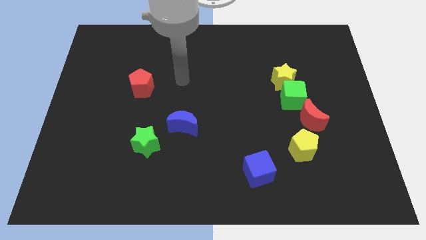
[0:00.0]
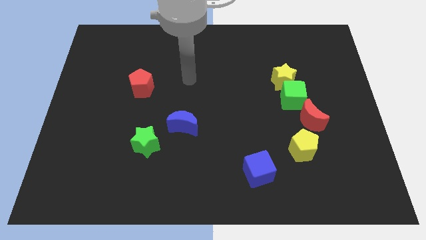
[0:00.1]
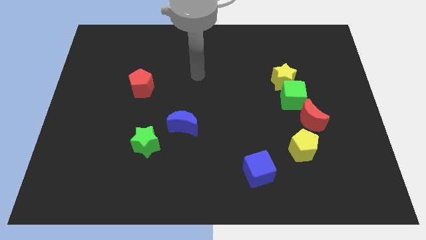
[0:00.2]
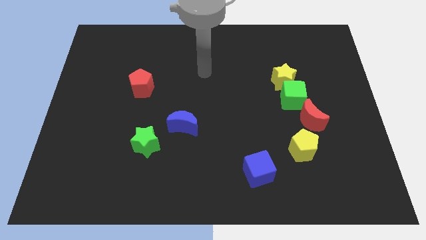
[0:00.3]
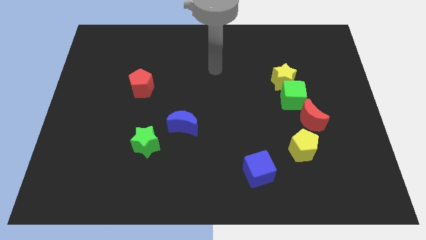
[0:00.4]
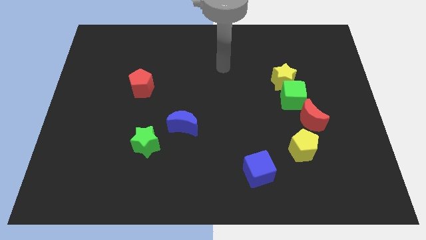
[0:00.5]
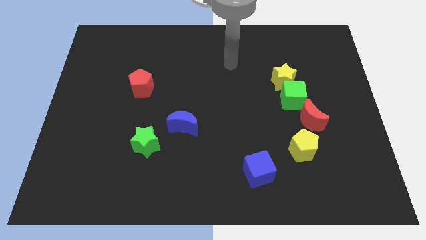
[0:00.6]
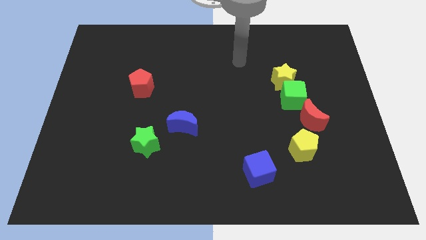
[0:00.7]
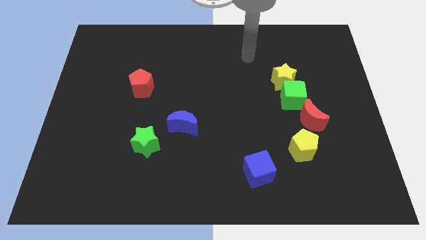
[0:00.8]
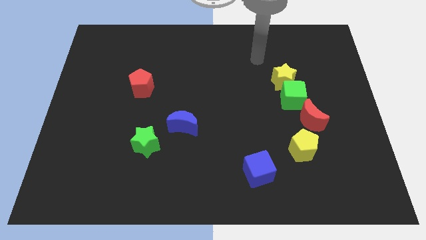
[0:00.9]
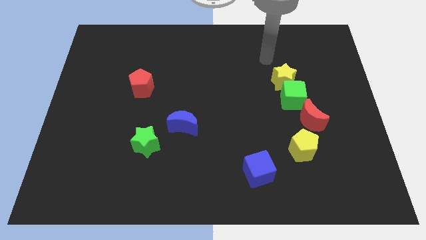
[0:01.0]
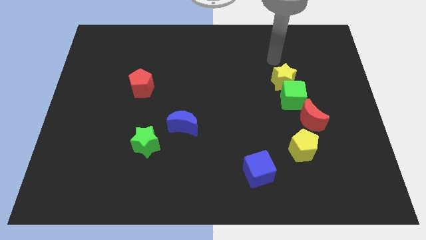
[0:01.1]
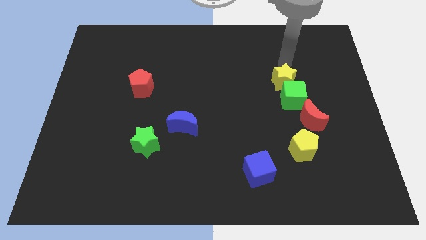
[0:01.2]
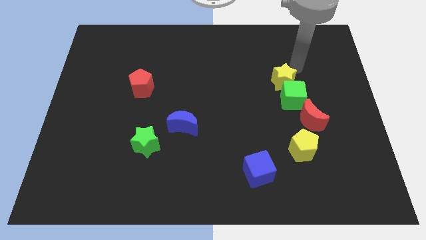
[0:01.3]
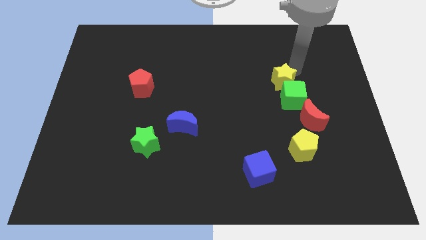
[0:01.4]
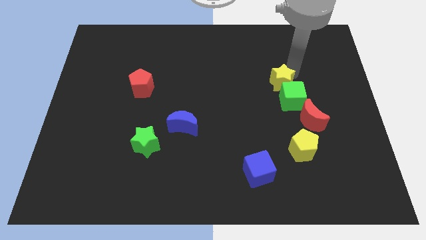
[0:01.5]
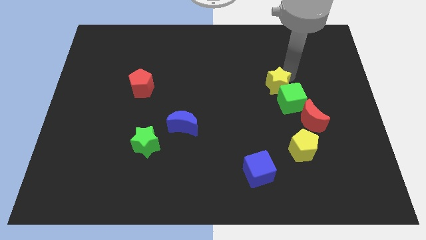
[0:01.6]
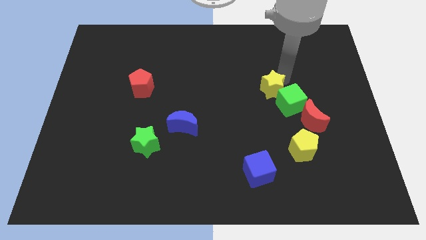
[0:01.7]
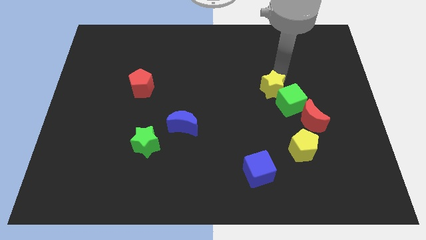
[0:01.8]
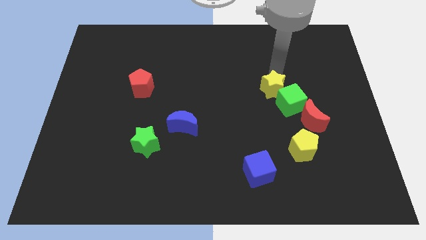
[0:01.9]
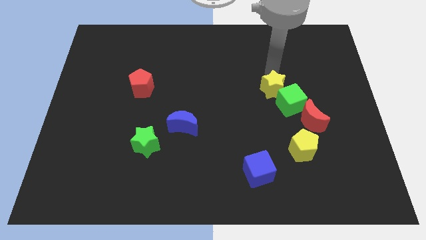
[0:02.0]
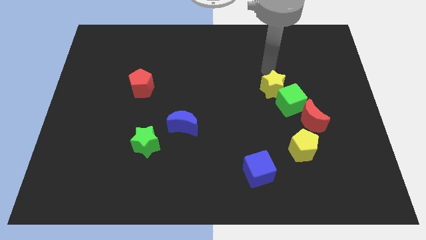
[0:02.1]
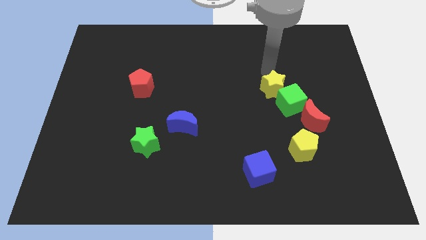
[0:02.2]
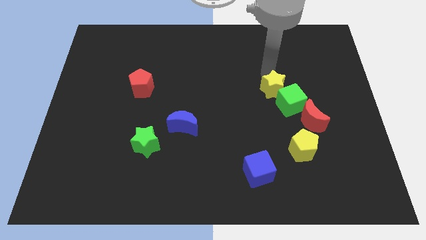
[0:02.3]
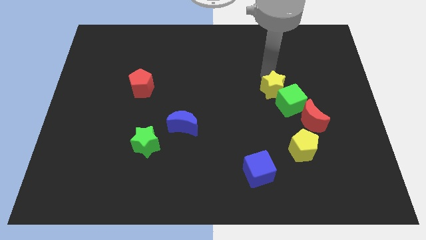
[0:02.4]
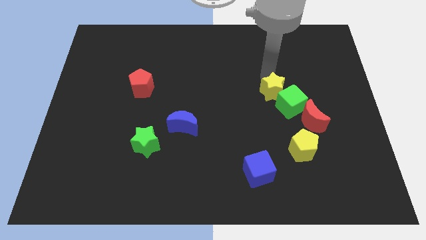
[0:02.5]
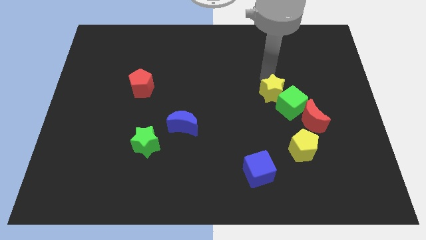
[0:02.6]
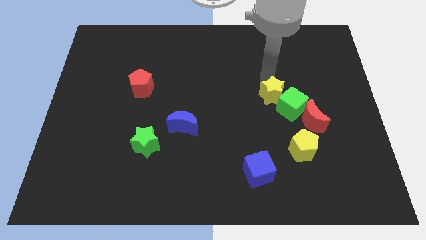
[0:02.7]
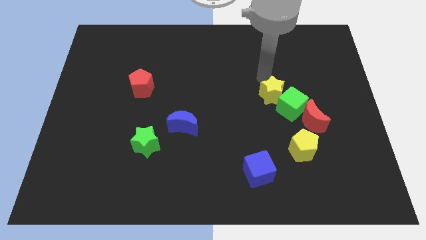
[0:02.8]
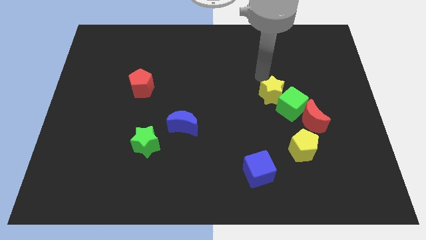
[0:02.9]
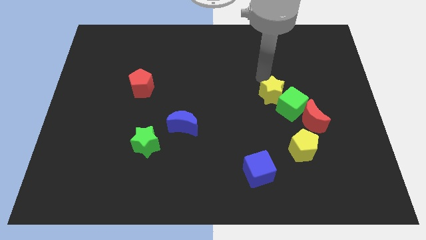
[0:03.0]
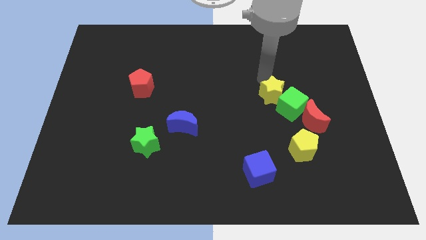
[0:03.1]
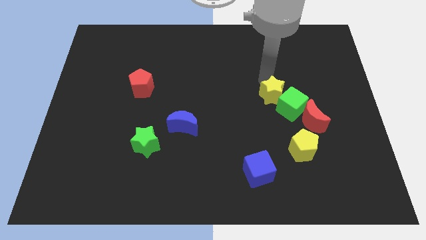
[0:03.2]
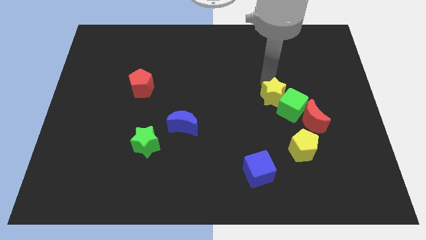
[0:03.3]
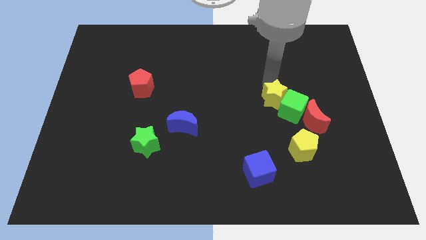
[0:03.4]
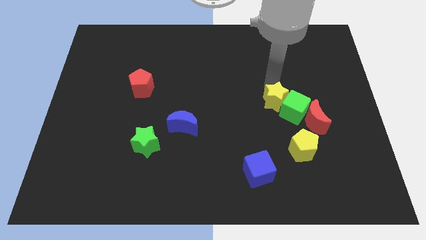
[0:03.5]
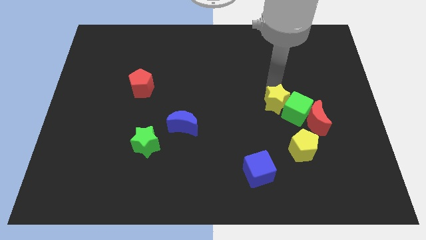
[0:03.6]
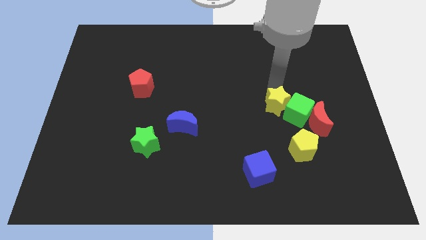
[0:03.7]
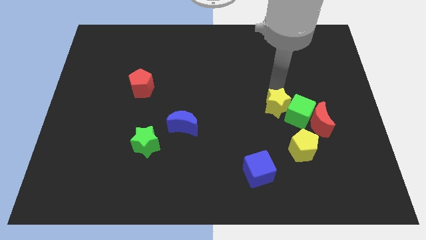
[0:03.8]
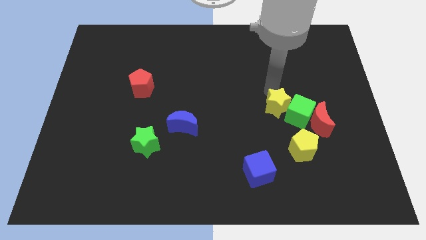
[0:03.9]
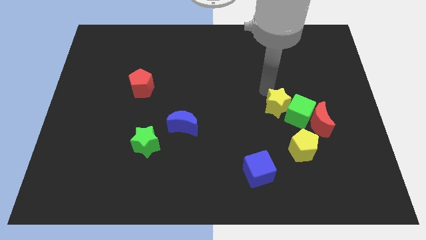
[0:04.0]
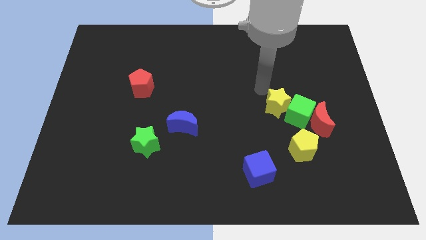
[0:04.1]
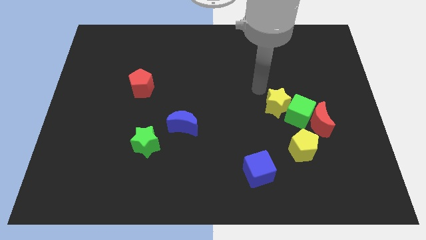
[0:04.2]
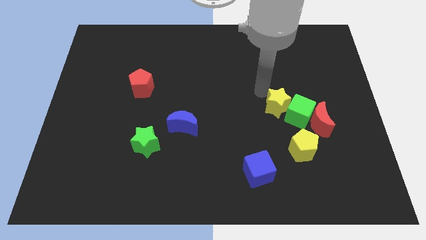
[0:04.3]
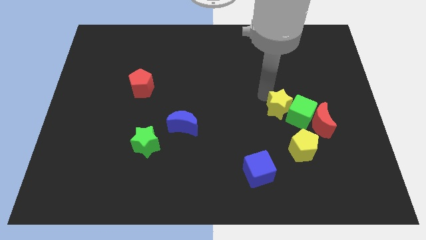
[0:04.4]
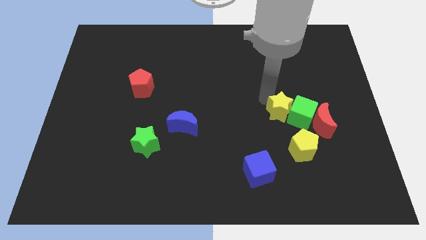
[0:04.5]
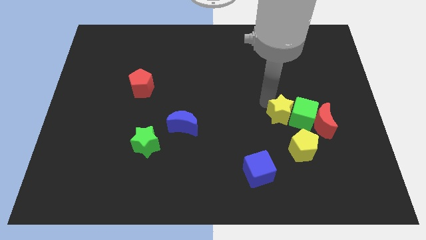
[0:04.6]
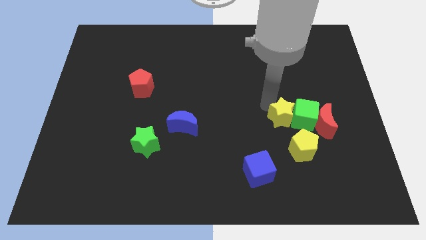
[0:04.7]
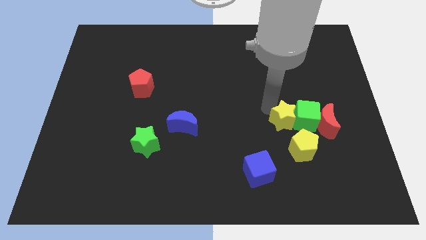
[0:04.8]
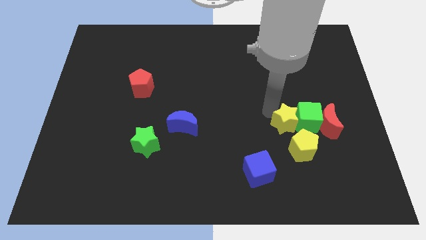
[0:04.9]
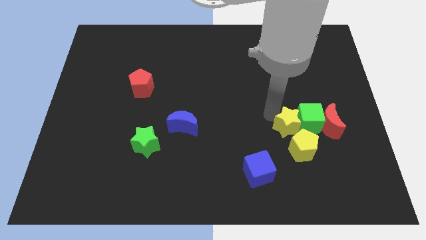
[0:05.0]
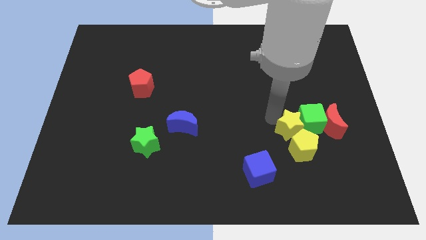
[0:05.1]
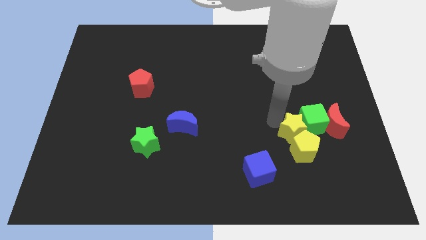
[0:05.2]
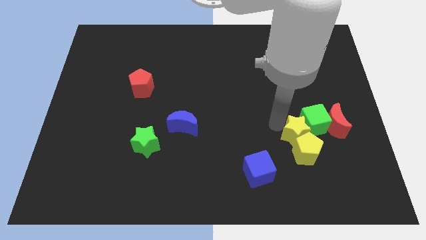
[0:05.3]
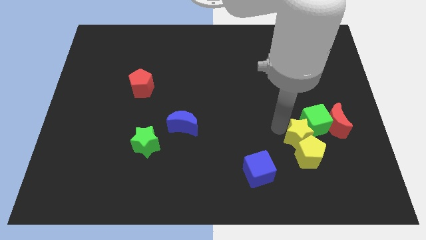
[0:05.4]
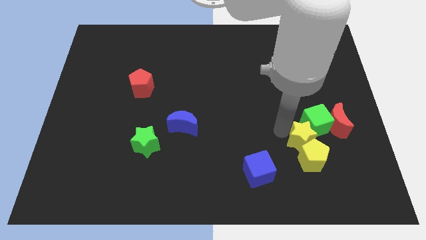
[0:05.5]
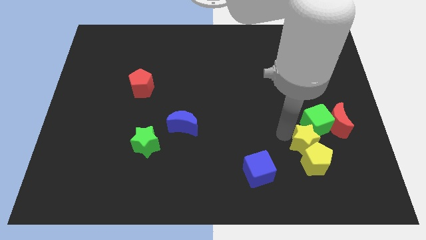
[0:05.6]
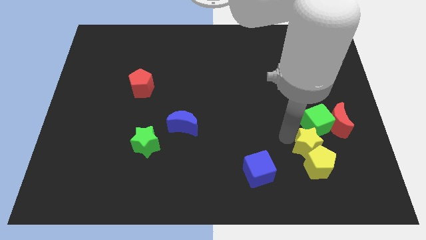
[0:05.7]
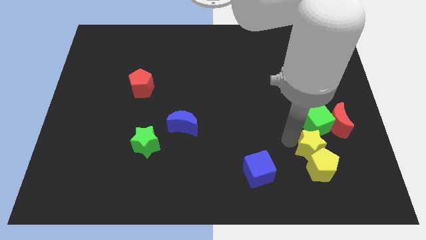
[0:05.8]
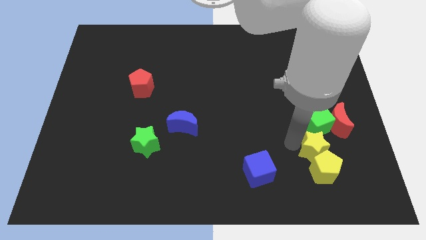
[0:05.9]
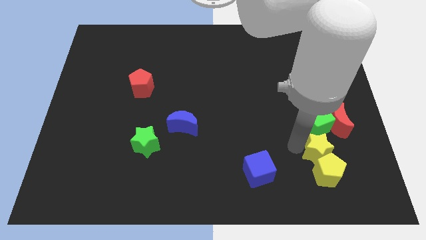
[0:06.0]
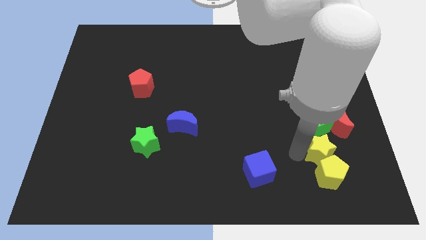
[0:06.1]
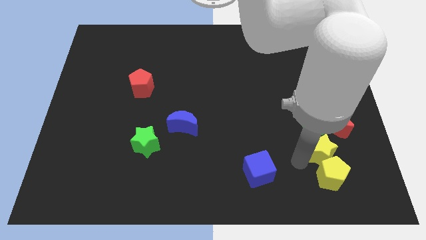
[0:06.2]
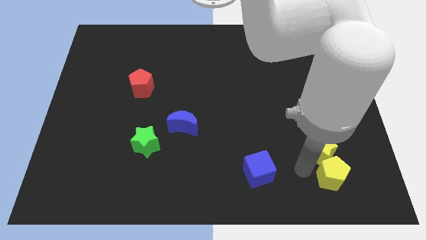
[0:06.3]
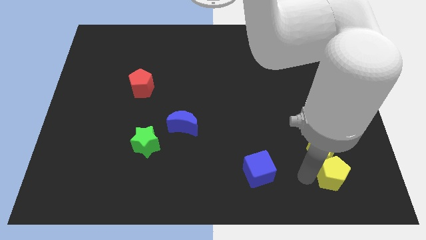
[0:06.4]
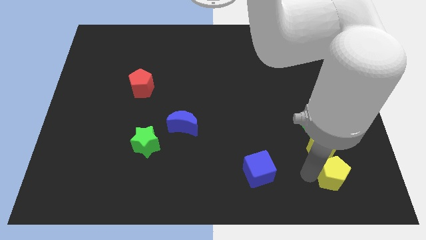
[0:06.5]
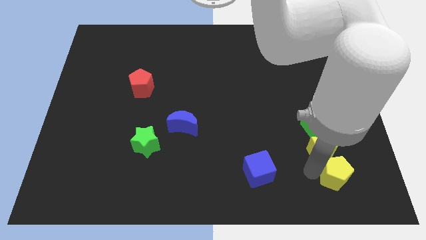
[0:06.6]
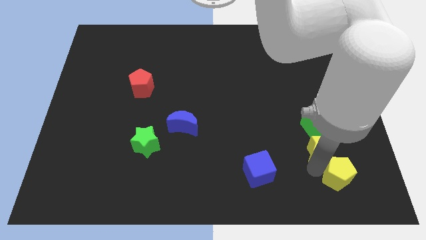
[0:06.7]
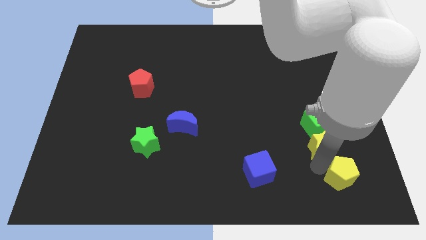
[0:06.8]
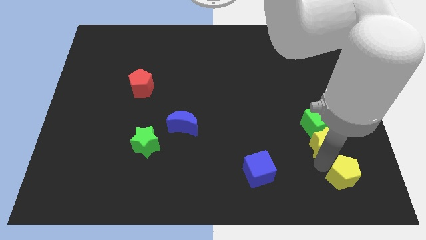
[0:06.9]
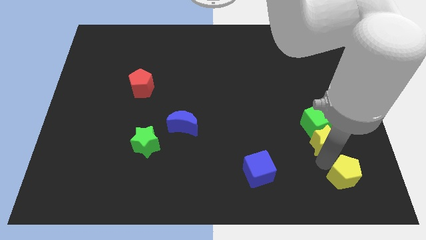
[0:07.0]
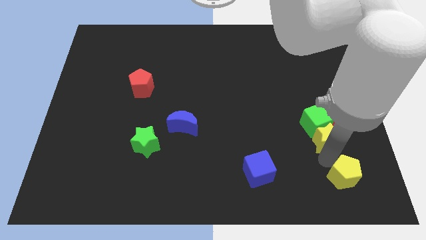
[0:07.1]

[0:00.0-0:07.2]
slide the yellow star towards the red moon

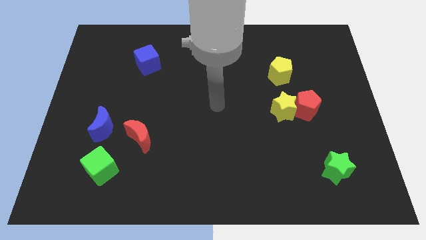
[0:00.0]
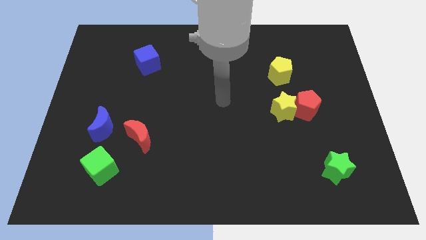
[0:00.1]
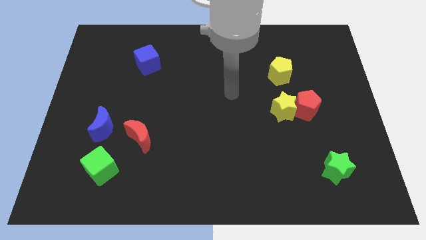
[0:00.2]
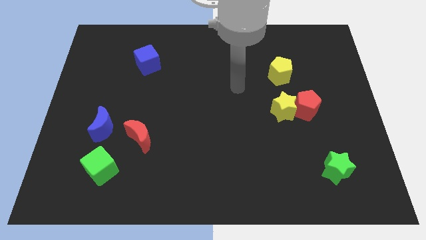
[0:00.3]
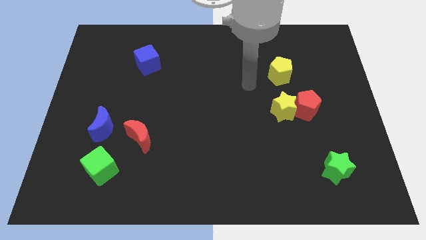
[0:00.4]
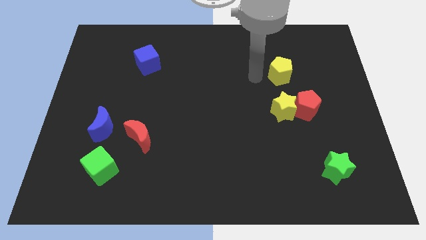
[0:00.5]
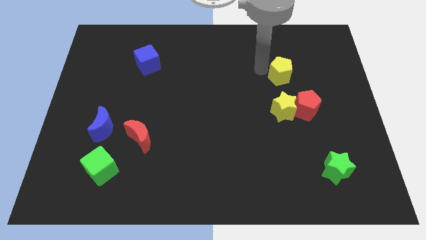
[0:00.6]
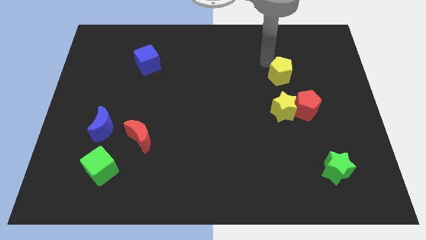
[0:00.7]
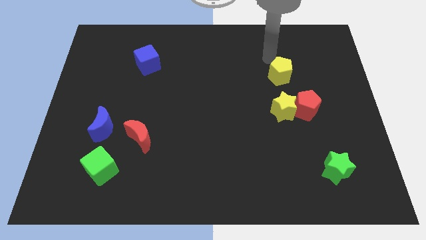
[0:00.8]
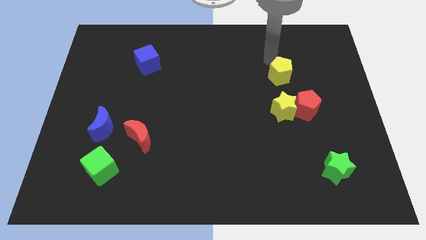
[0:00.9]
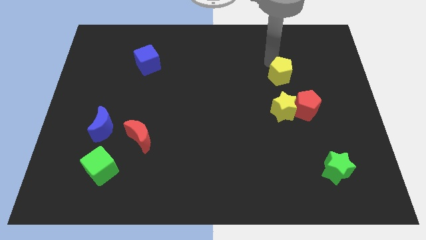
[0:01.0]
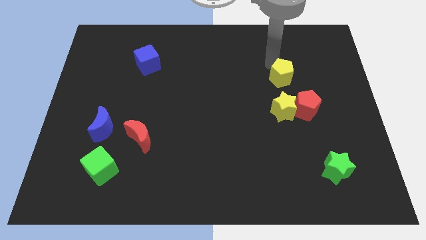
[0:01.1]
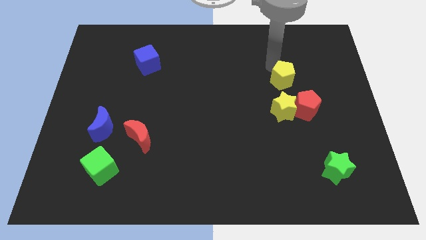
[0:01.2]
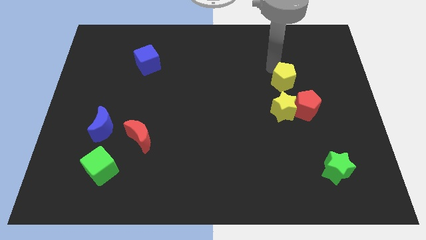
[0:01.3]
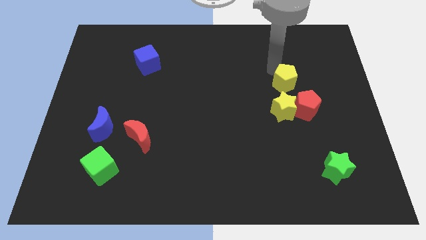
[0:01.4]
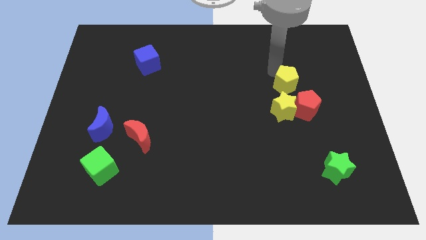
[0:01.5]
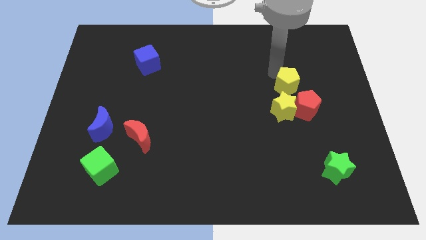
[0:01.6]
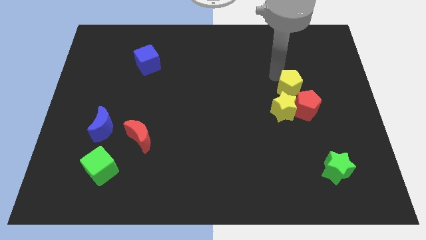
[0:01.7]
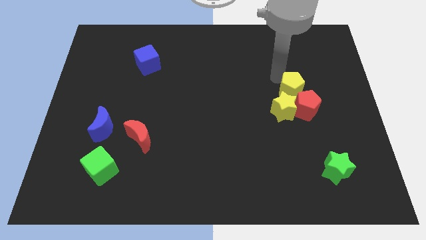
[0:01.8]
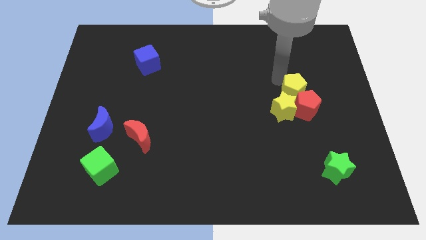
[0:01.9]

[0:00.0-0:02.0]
put the yellow pentagon next to the red pentagon
